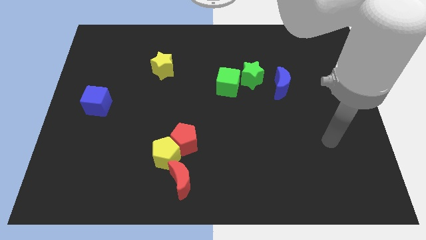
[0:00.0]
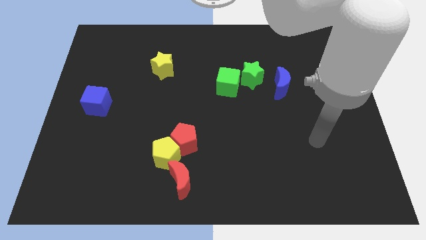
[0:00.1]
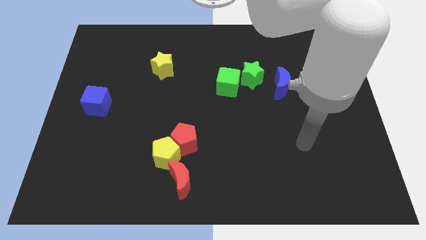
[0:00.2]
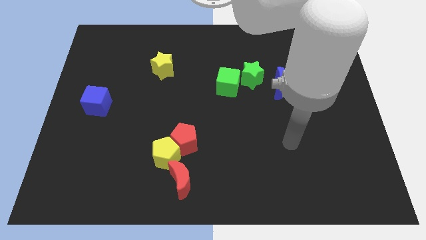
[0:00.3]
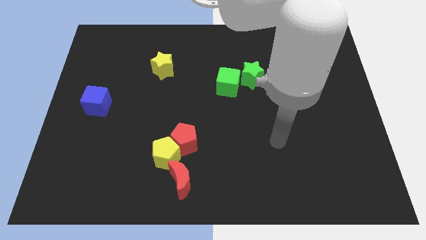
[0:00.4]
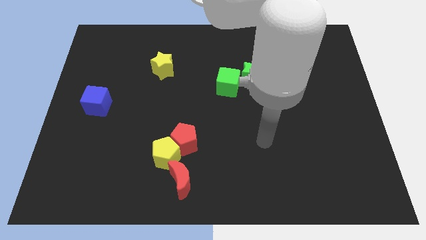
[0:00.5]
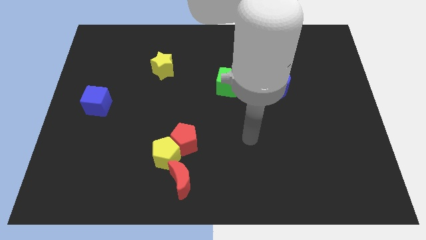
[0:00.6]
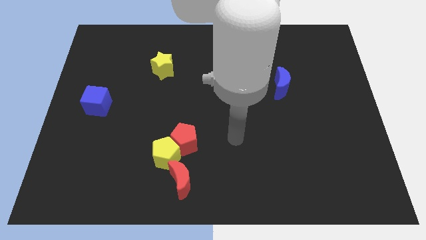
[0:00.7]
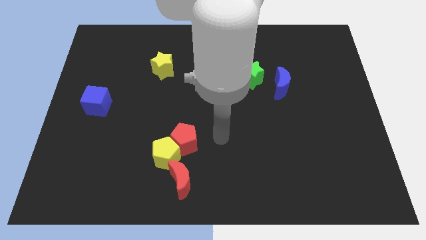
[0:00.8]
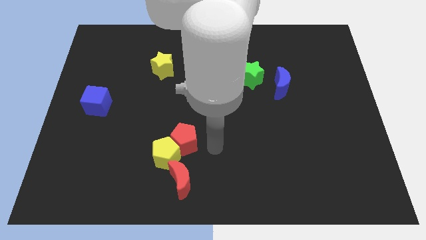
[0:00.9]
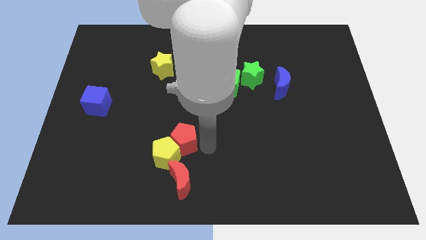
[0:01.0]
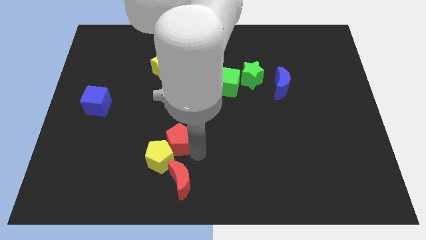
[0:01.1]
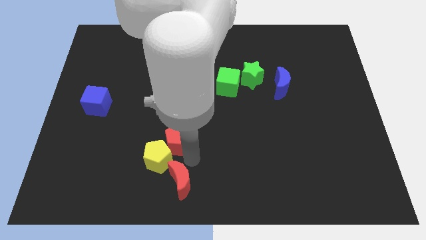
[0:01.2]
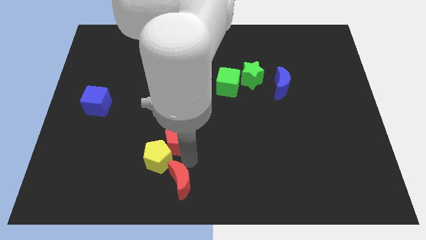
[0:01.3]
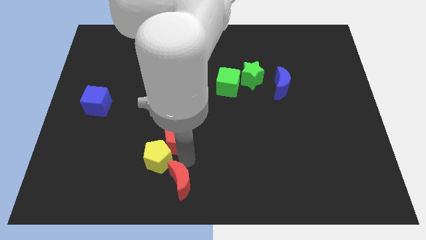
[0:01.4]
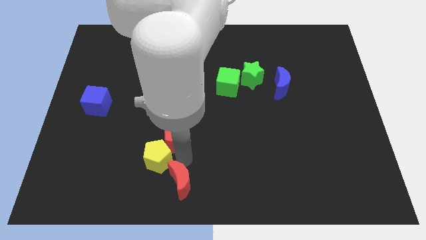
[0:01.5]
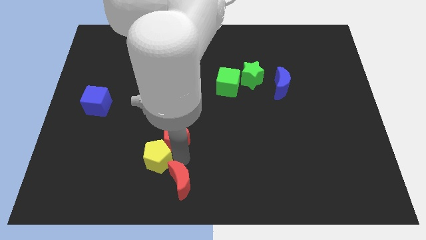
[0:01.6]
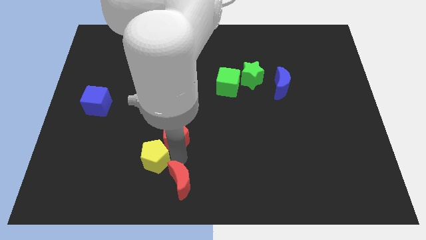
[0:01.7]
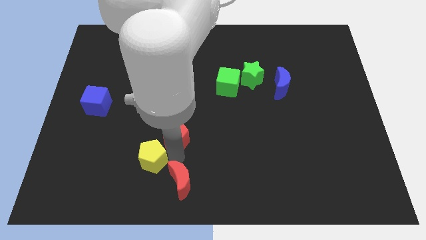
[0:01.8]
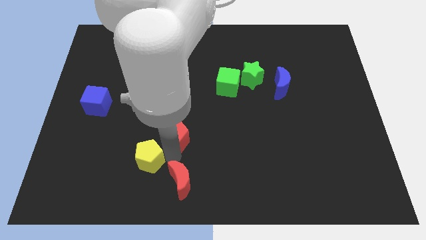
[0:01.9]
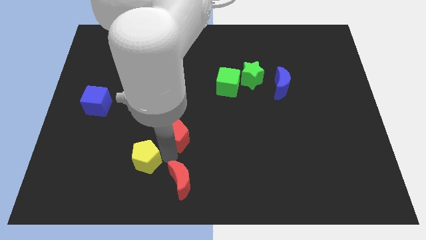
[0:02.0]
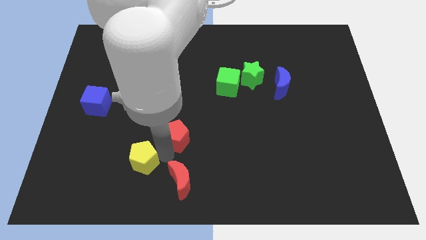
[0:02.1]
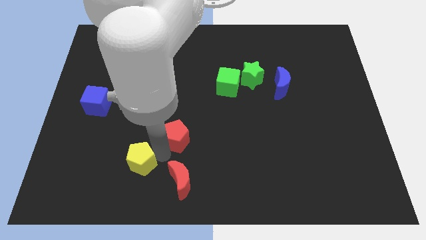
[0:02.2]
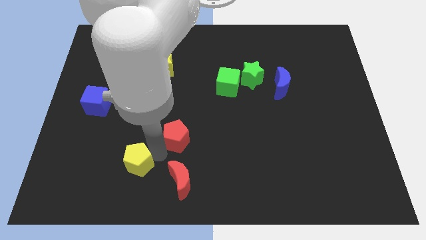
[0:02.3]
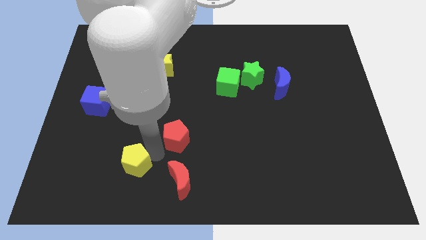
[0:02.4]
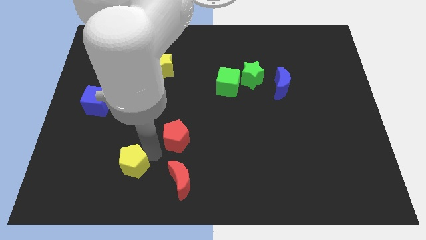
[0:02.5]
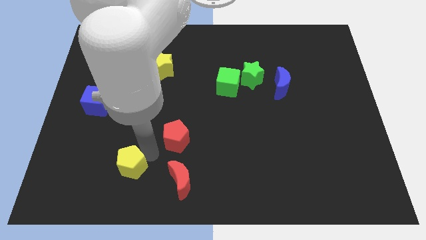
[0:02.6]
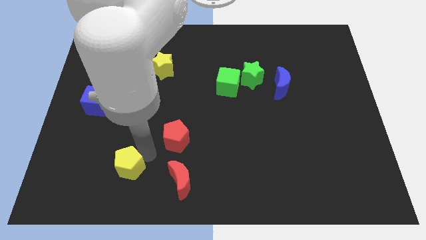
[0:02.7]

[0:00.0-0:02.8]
pull the yellow pentagon apart from the red pentagon and red moon

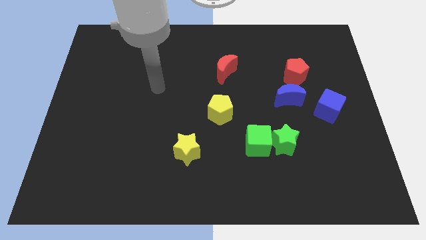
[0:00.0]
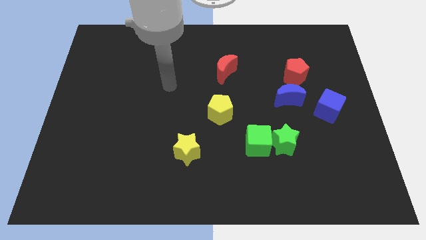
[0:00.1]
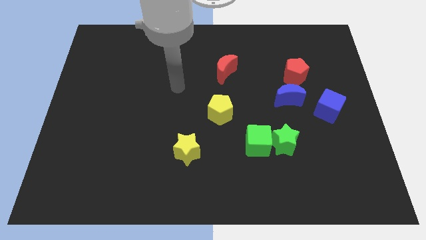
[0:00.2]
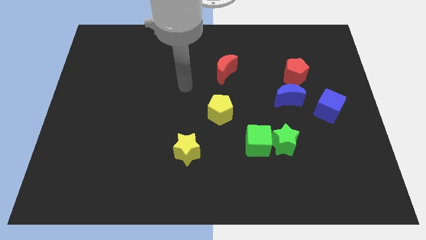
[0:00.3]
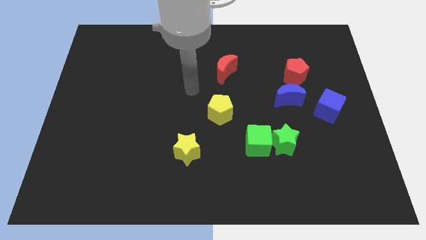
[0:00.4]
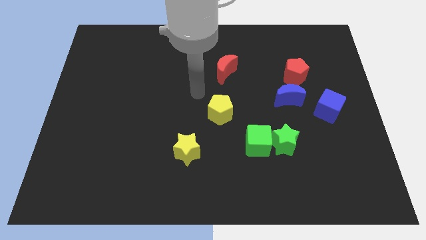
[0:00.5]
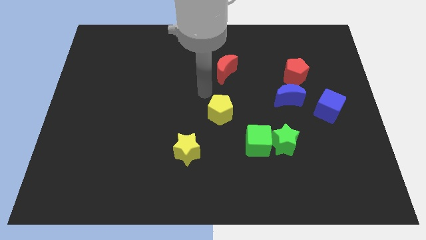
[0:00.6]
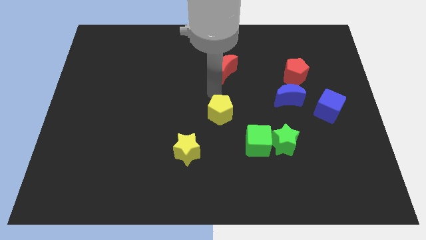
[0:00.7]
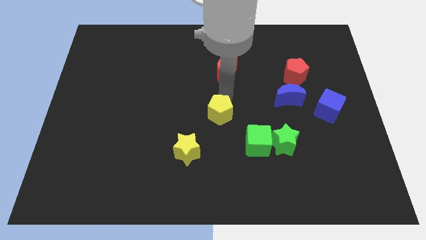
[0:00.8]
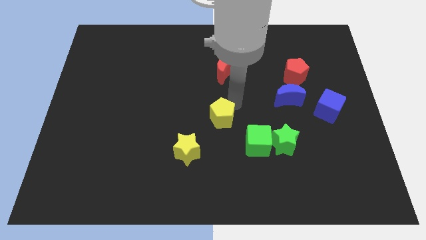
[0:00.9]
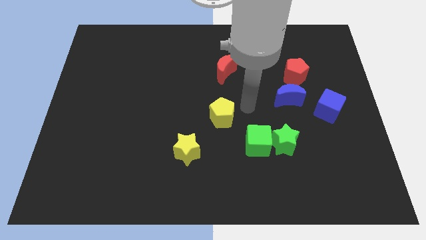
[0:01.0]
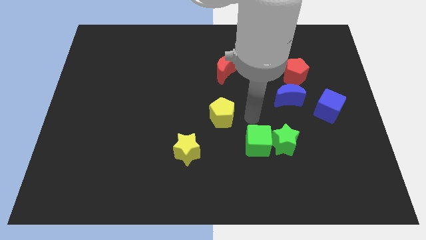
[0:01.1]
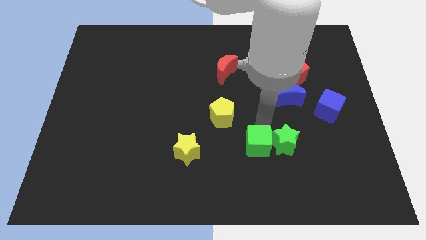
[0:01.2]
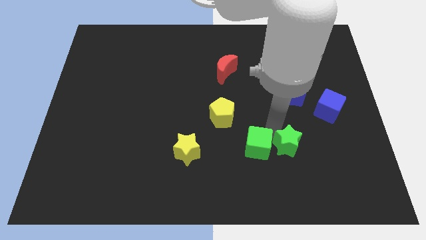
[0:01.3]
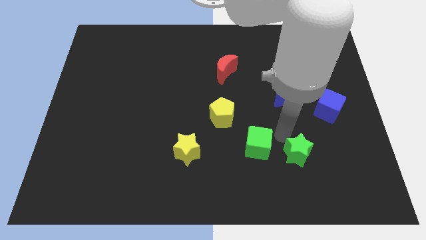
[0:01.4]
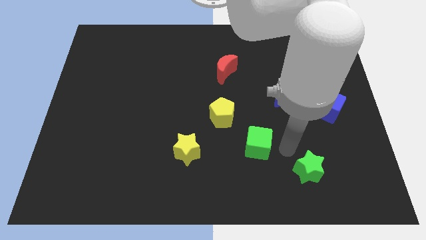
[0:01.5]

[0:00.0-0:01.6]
move the green cube away from the green star

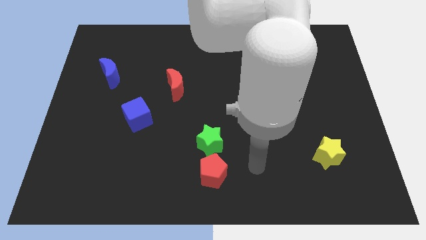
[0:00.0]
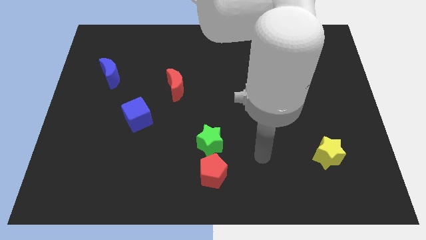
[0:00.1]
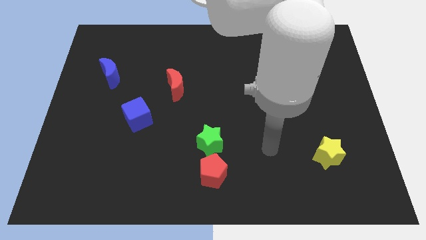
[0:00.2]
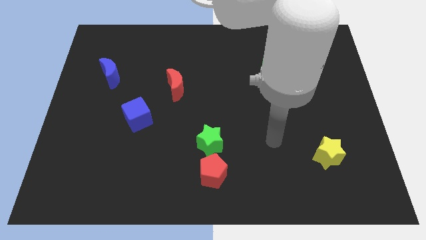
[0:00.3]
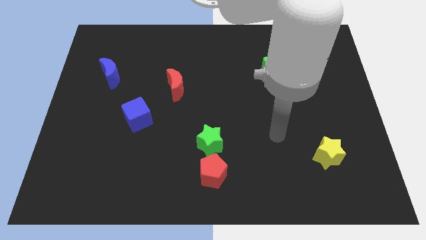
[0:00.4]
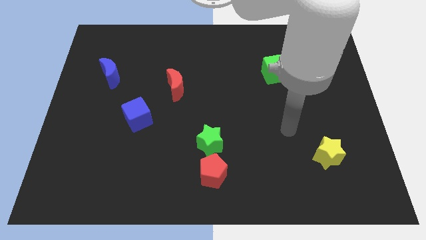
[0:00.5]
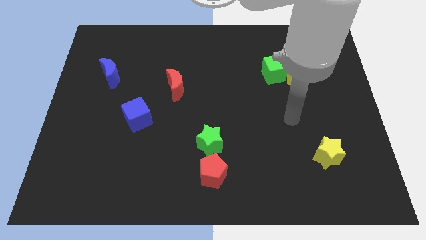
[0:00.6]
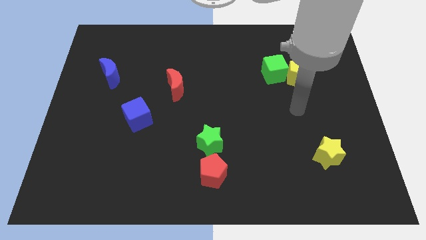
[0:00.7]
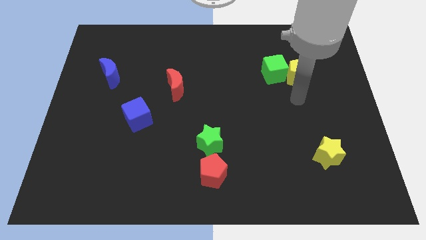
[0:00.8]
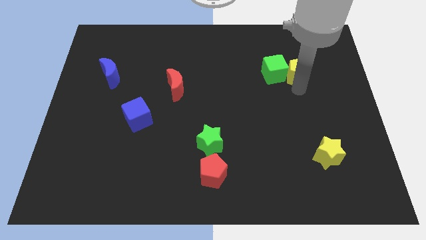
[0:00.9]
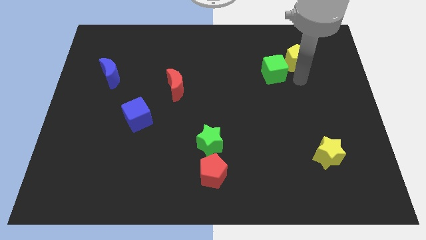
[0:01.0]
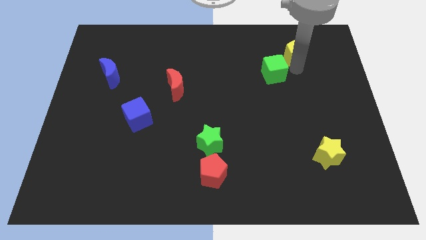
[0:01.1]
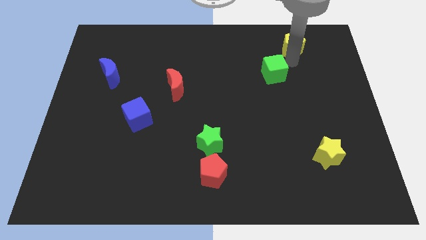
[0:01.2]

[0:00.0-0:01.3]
pull the green cube apart from the yellow pentagon

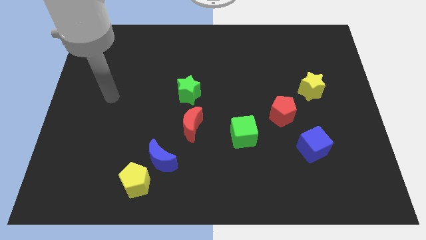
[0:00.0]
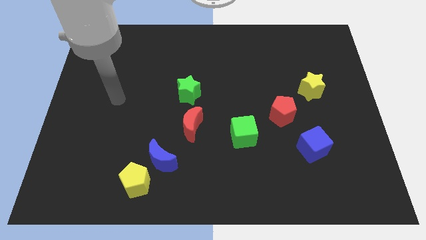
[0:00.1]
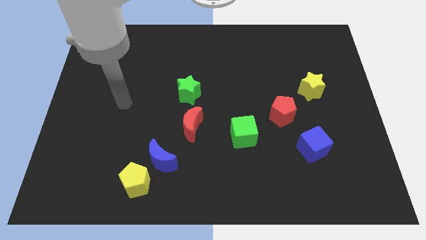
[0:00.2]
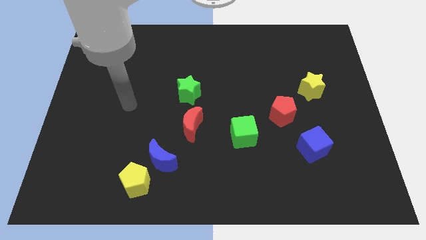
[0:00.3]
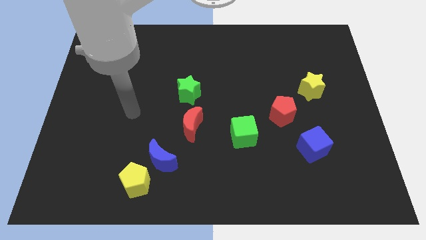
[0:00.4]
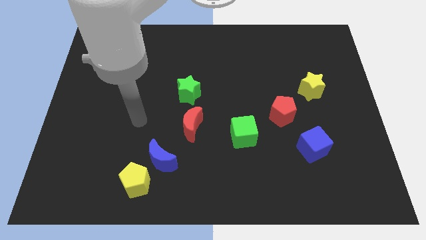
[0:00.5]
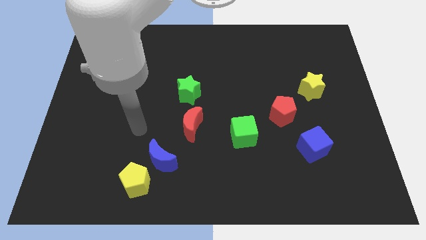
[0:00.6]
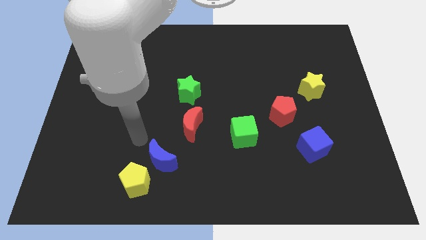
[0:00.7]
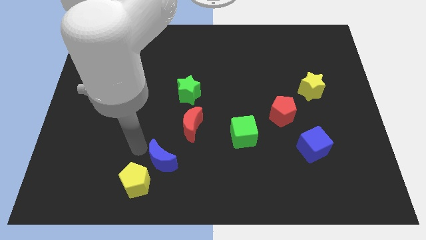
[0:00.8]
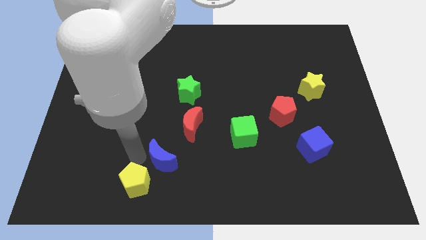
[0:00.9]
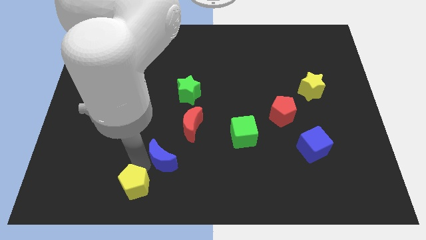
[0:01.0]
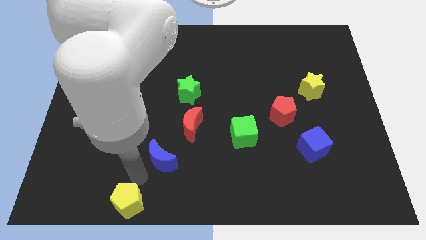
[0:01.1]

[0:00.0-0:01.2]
move the blue moon away from the yellow pentagon

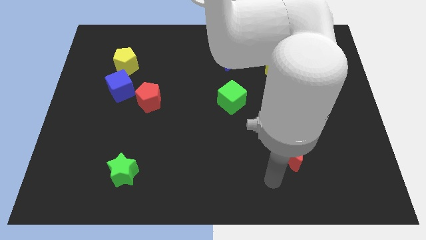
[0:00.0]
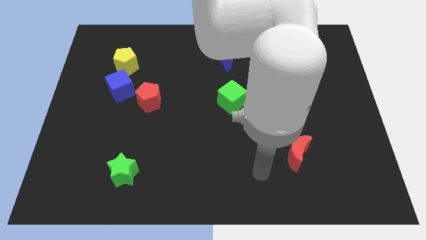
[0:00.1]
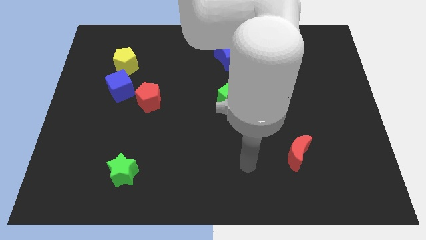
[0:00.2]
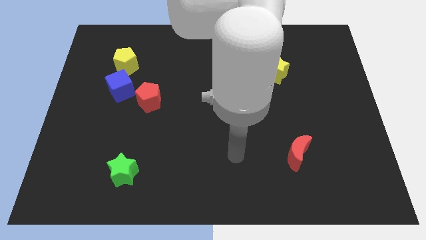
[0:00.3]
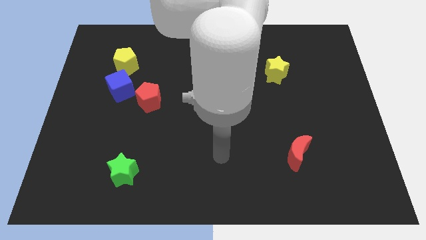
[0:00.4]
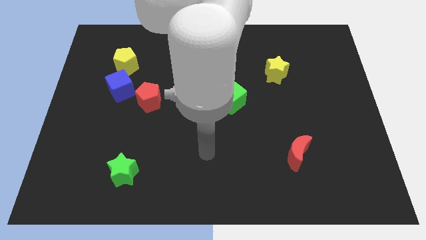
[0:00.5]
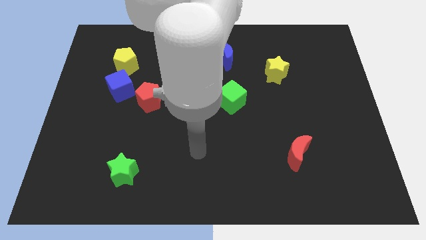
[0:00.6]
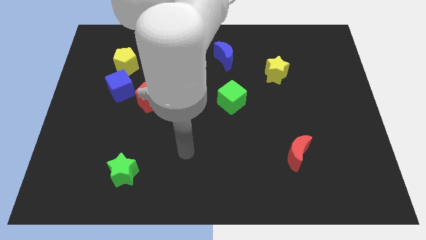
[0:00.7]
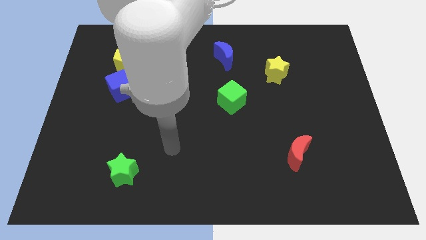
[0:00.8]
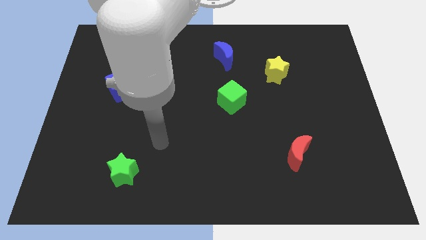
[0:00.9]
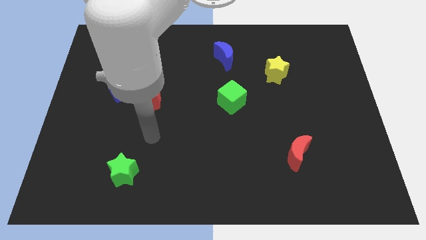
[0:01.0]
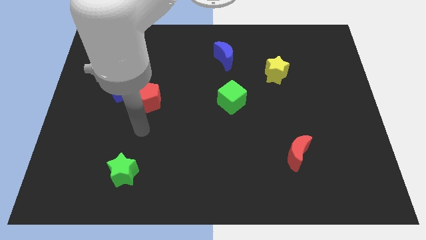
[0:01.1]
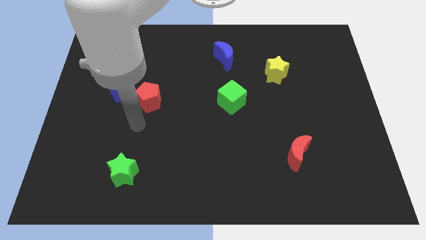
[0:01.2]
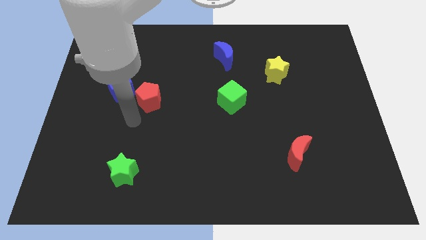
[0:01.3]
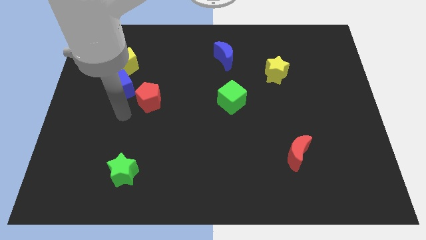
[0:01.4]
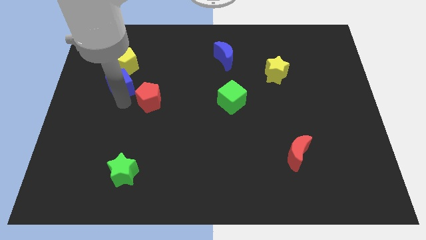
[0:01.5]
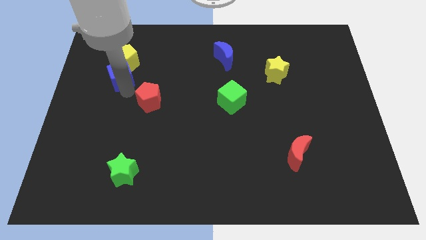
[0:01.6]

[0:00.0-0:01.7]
pull the red pentagon apart from the blue cube

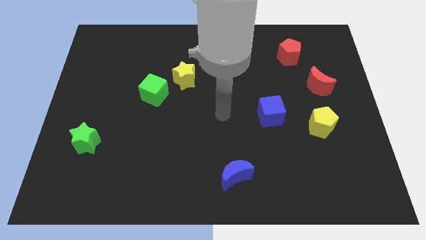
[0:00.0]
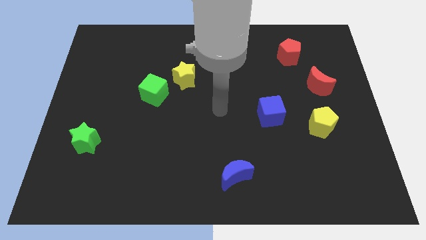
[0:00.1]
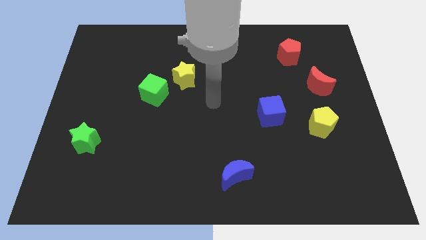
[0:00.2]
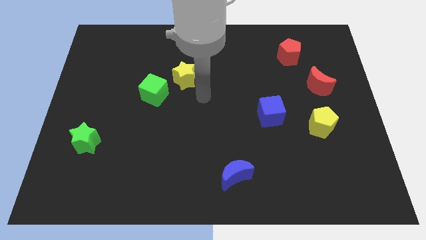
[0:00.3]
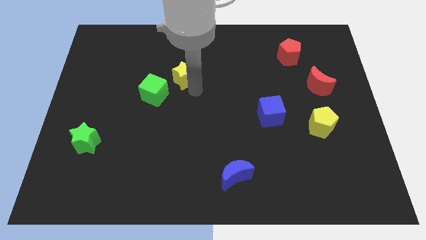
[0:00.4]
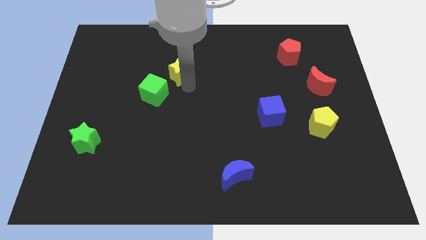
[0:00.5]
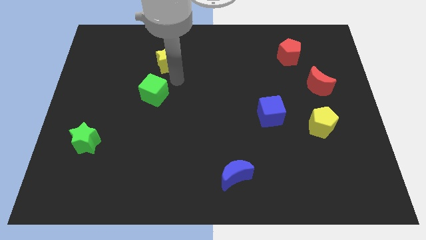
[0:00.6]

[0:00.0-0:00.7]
pull the green cube apart from the yellow star
